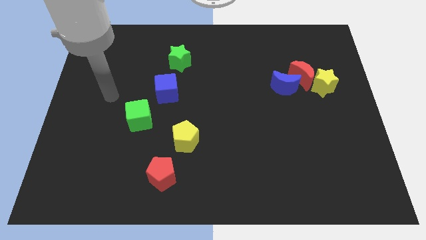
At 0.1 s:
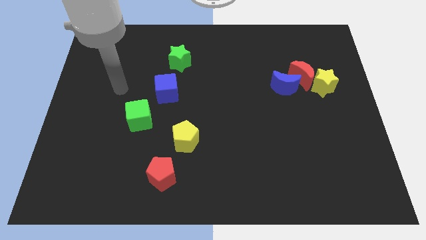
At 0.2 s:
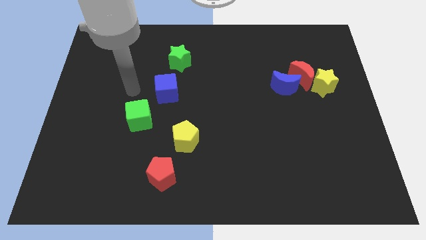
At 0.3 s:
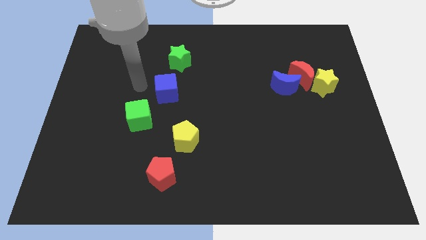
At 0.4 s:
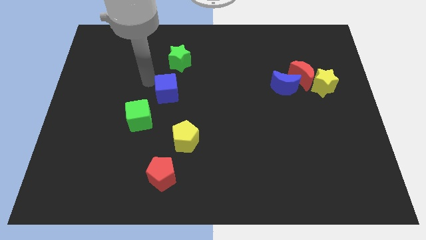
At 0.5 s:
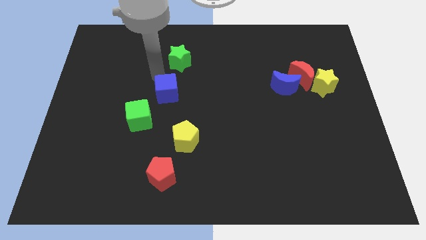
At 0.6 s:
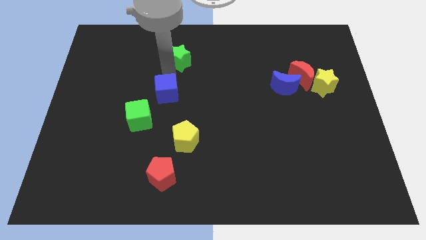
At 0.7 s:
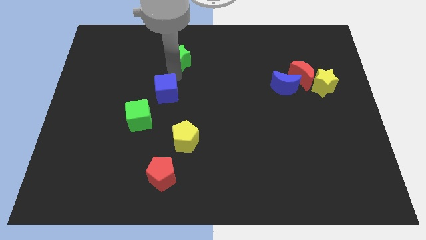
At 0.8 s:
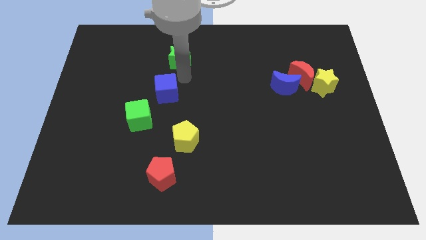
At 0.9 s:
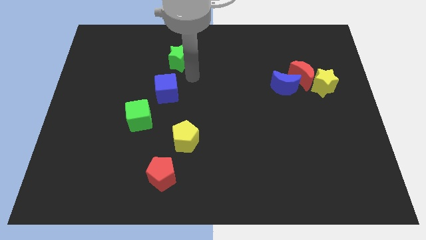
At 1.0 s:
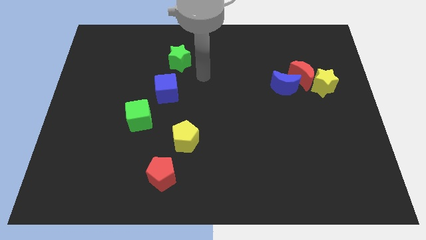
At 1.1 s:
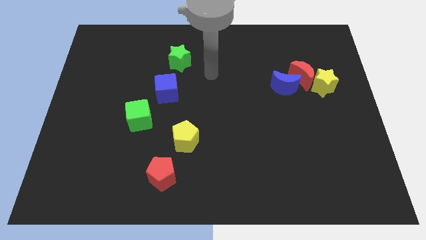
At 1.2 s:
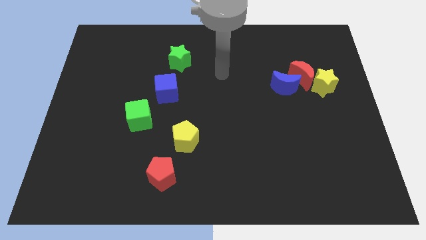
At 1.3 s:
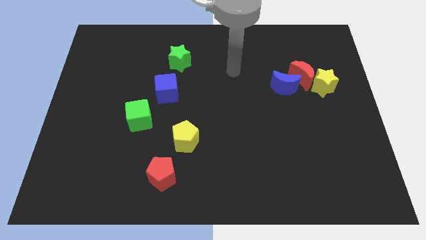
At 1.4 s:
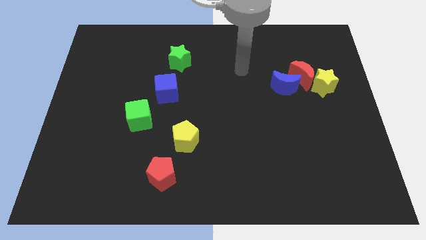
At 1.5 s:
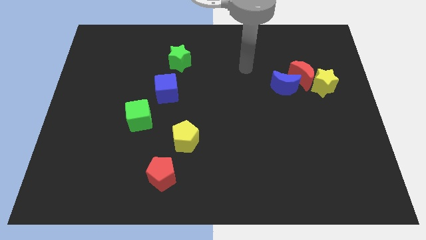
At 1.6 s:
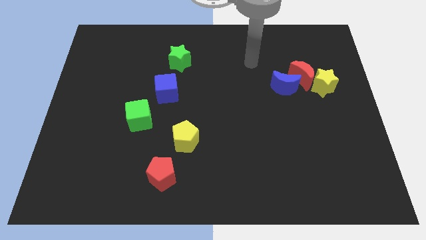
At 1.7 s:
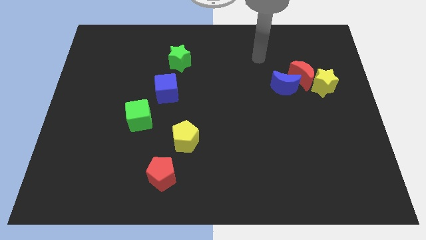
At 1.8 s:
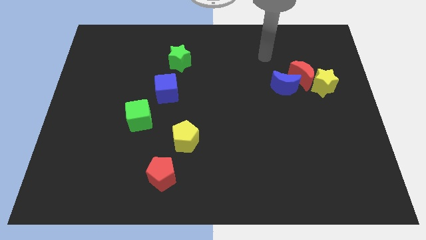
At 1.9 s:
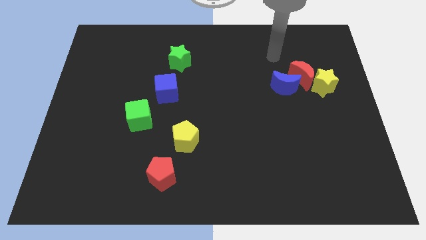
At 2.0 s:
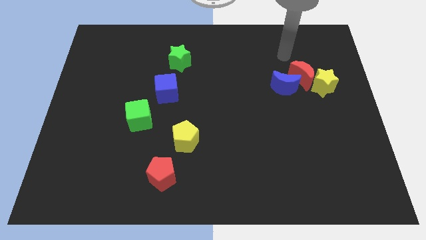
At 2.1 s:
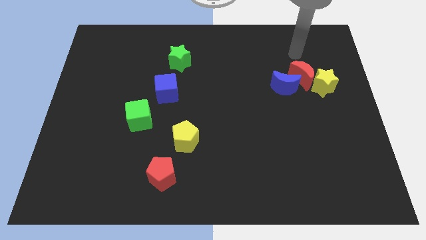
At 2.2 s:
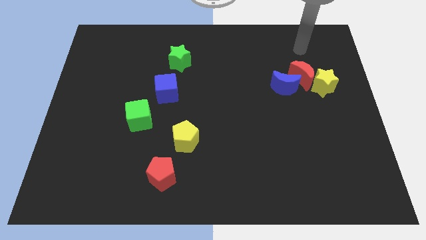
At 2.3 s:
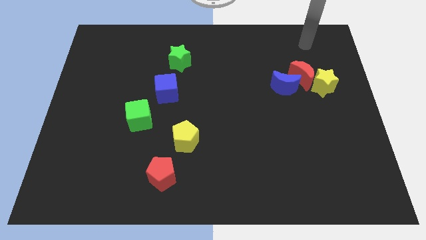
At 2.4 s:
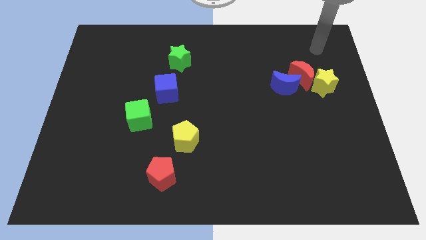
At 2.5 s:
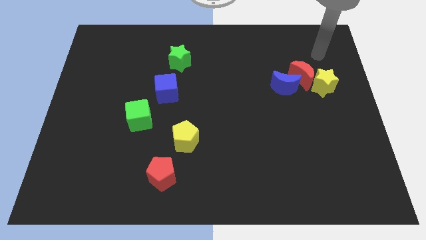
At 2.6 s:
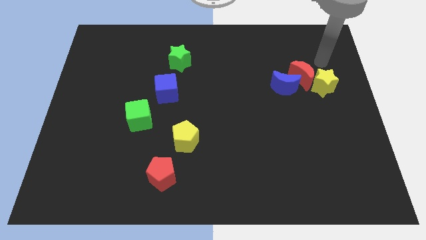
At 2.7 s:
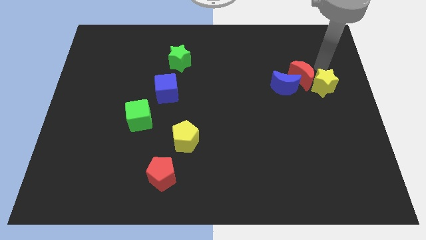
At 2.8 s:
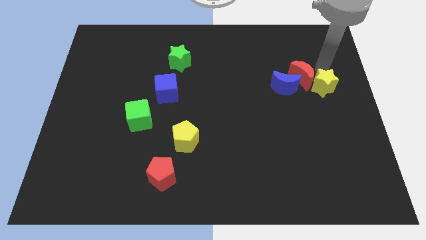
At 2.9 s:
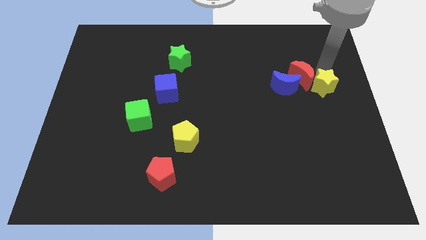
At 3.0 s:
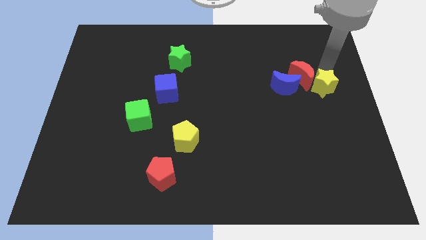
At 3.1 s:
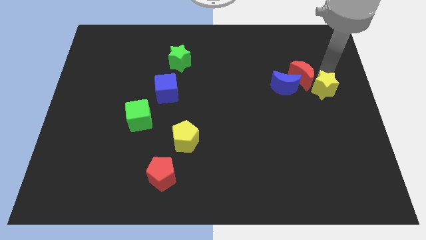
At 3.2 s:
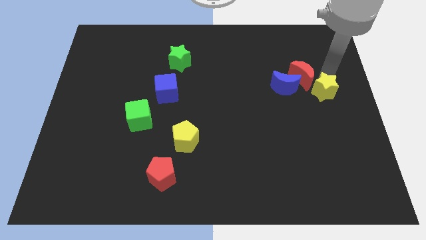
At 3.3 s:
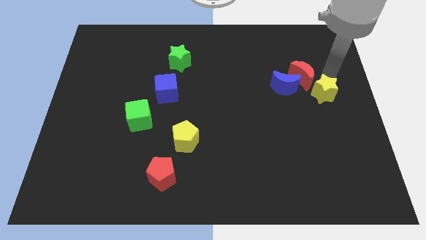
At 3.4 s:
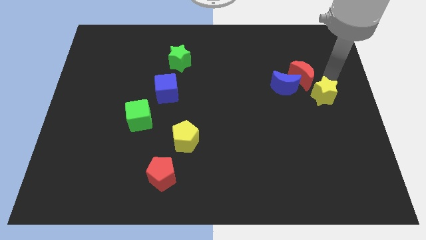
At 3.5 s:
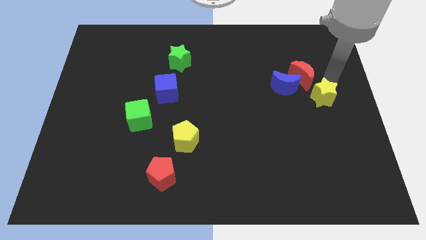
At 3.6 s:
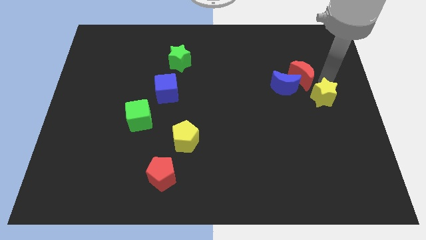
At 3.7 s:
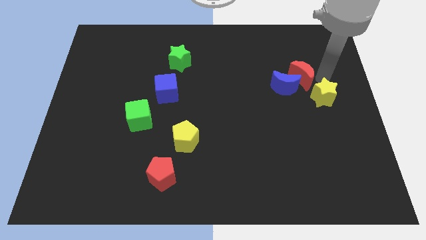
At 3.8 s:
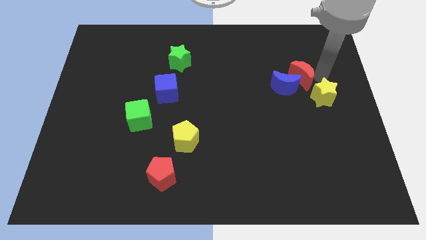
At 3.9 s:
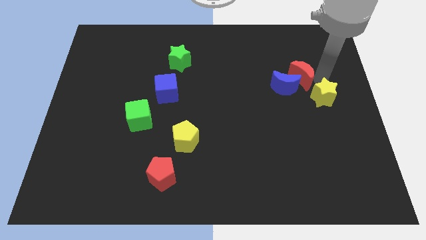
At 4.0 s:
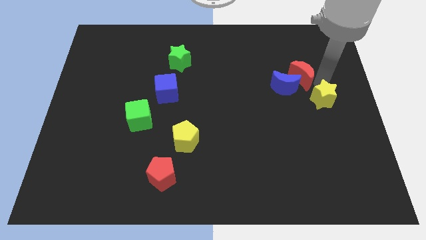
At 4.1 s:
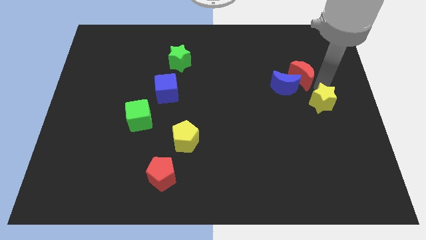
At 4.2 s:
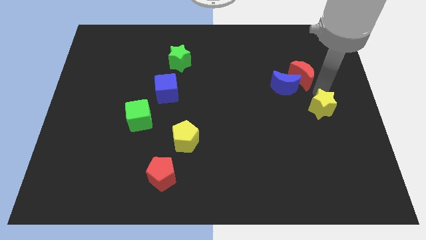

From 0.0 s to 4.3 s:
slightly move the yellow star down

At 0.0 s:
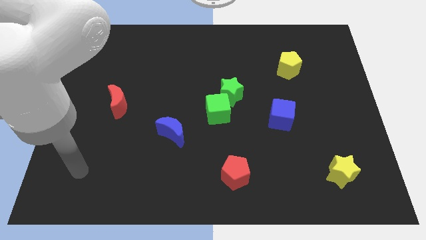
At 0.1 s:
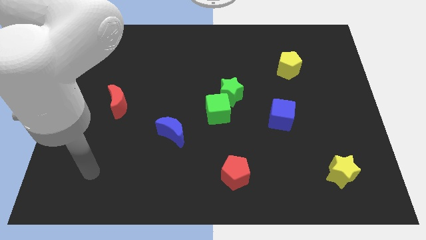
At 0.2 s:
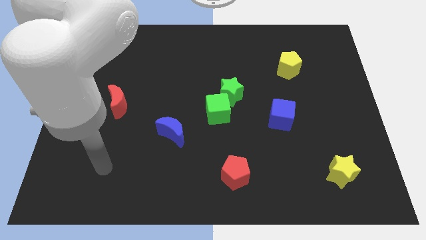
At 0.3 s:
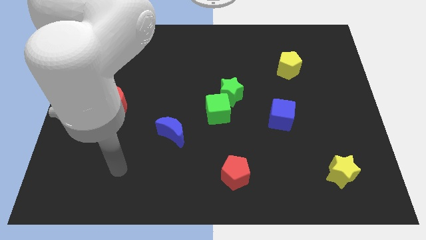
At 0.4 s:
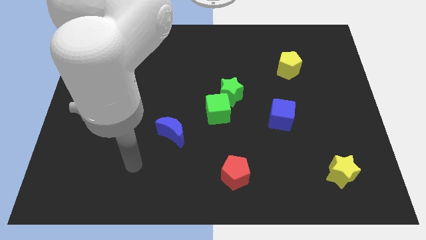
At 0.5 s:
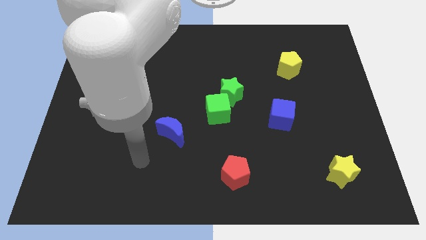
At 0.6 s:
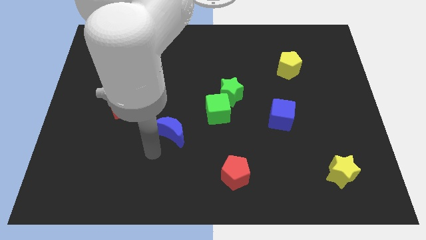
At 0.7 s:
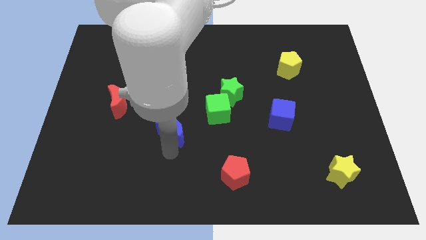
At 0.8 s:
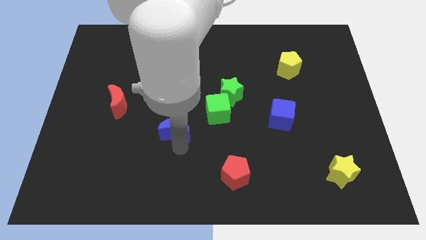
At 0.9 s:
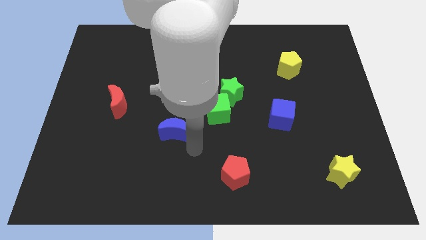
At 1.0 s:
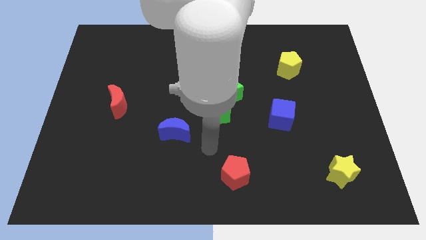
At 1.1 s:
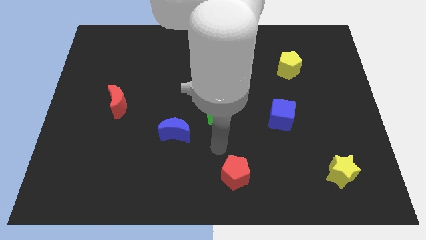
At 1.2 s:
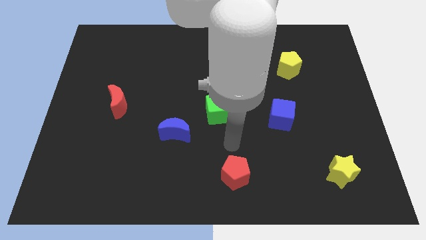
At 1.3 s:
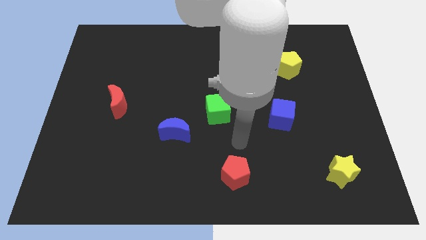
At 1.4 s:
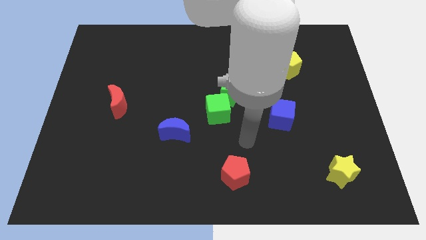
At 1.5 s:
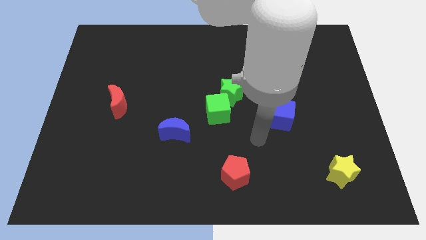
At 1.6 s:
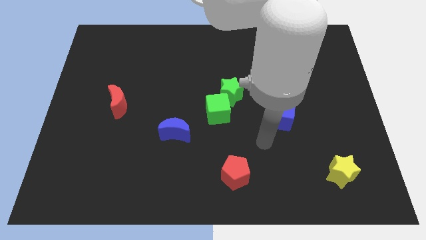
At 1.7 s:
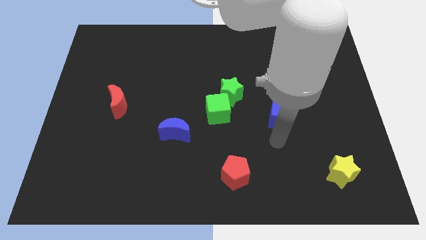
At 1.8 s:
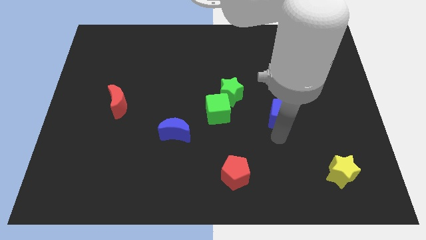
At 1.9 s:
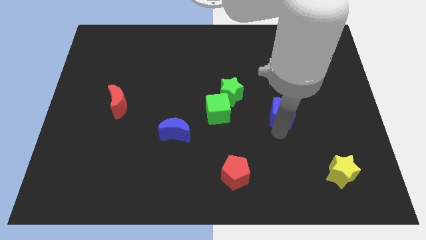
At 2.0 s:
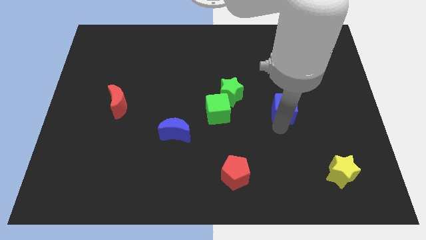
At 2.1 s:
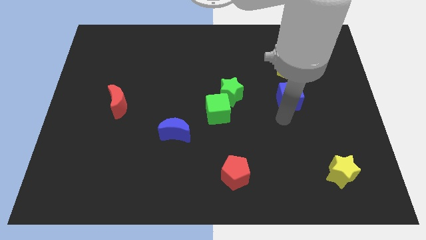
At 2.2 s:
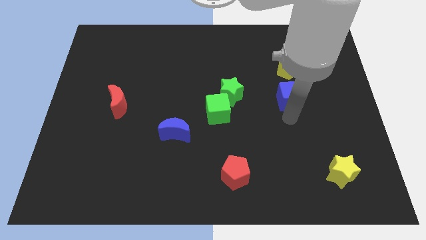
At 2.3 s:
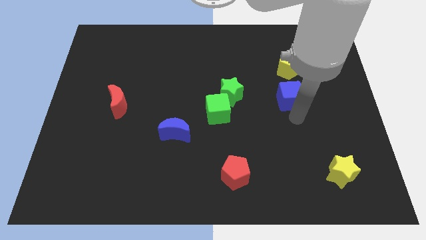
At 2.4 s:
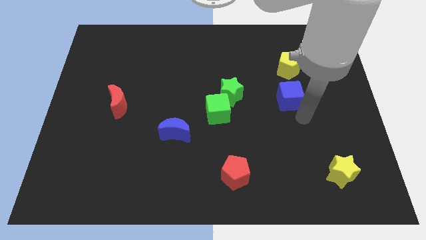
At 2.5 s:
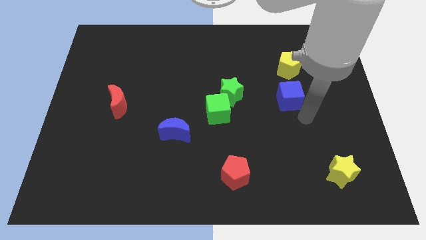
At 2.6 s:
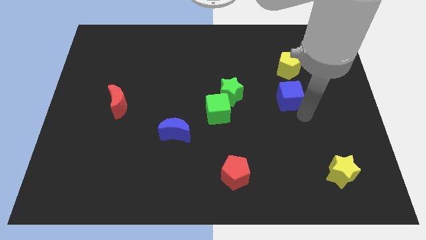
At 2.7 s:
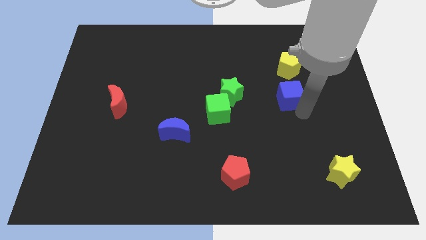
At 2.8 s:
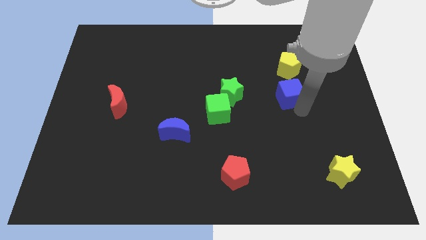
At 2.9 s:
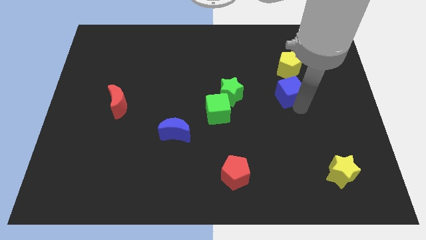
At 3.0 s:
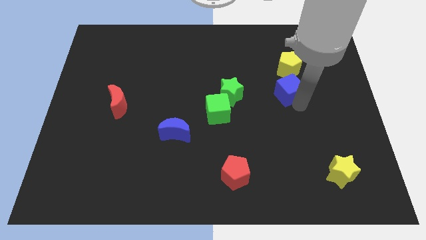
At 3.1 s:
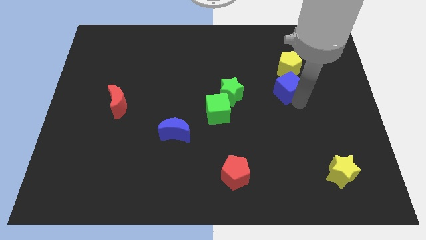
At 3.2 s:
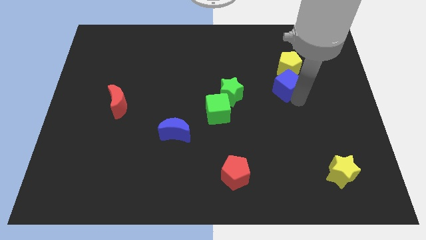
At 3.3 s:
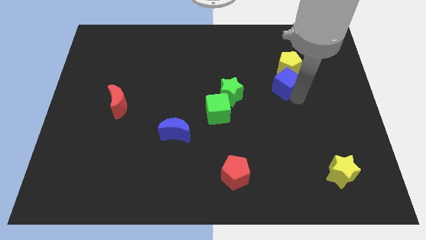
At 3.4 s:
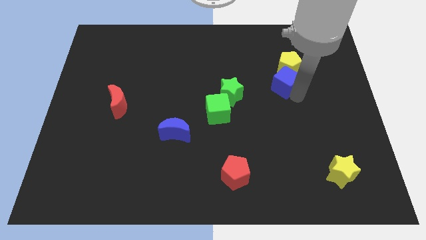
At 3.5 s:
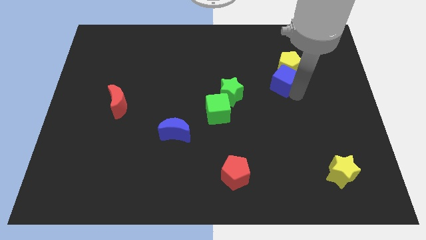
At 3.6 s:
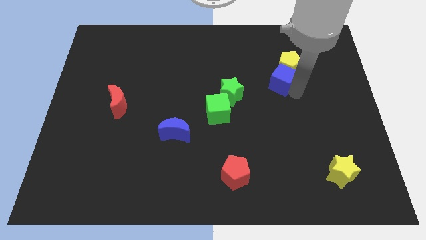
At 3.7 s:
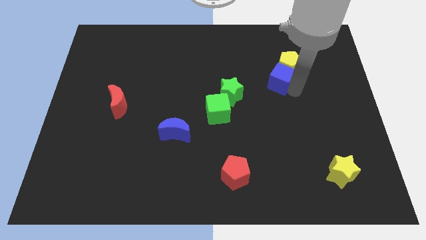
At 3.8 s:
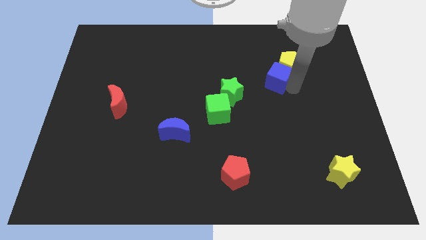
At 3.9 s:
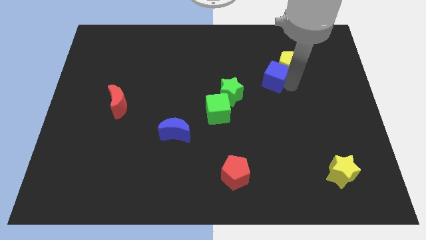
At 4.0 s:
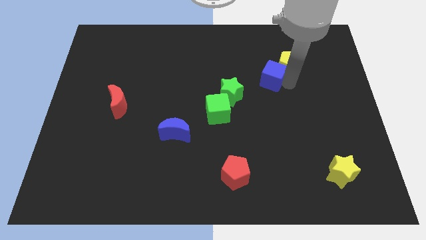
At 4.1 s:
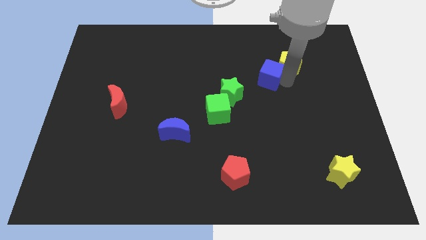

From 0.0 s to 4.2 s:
slightly slide the blue cube upwards and left diagonally
